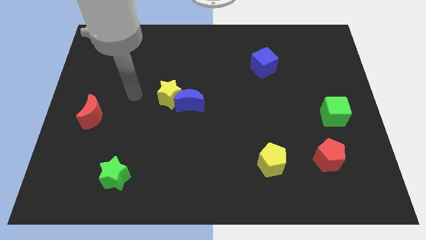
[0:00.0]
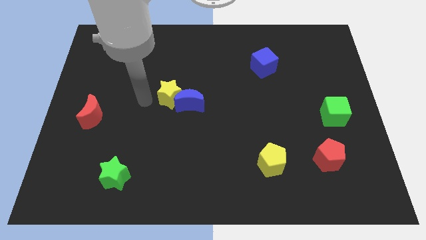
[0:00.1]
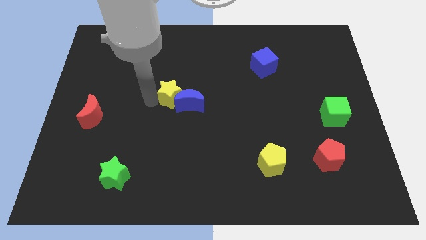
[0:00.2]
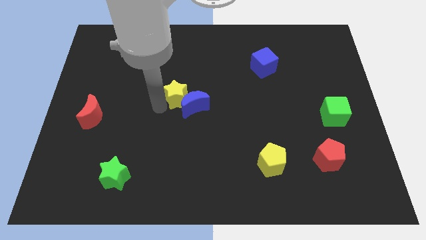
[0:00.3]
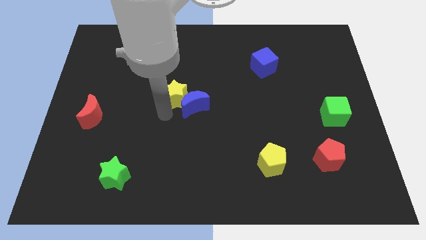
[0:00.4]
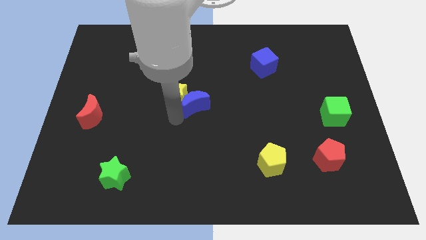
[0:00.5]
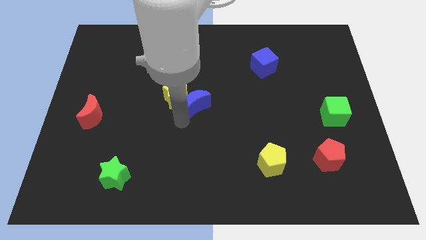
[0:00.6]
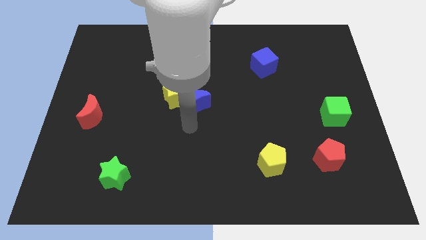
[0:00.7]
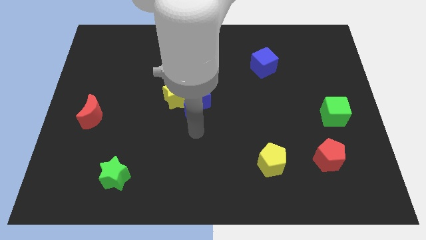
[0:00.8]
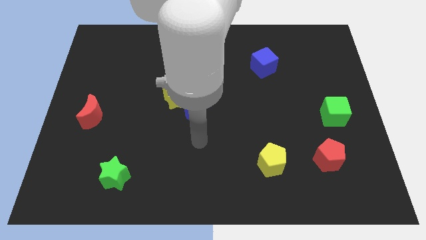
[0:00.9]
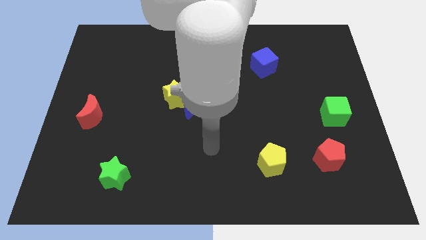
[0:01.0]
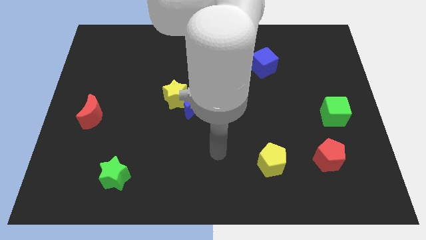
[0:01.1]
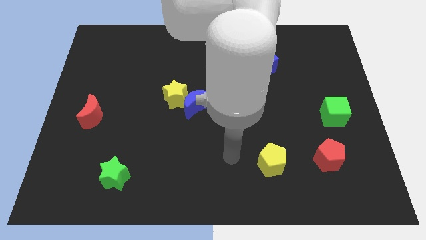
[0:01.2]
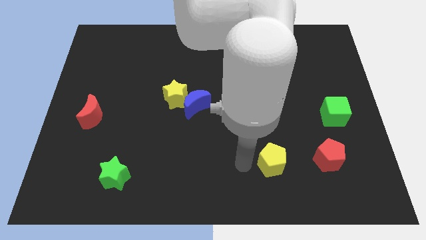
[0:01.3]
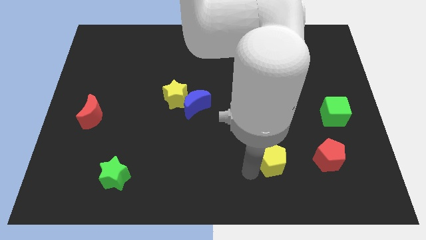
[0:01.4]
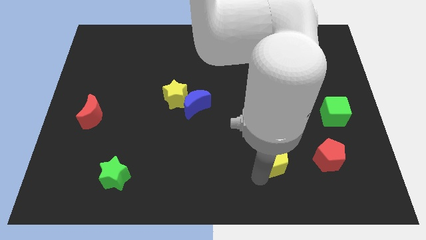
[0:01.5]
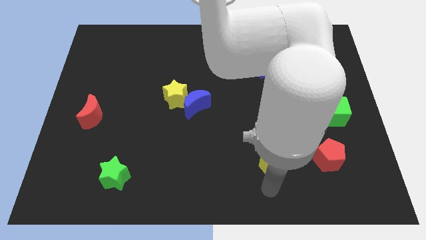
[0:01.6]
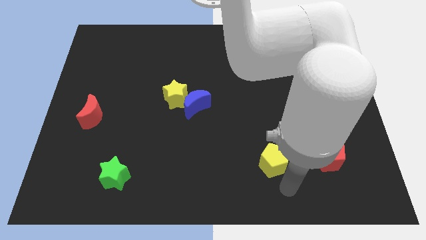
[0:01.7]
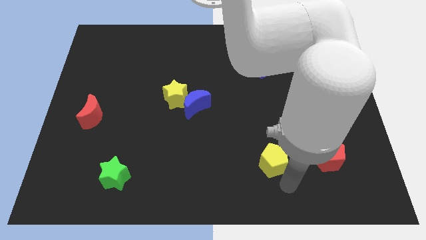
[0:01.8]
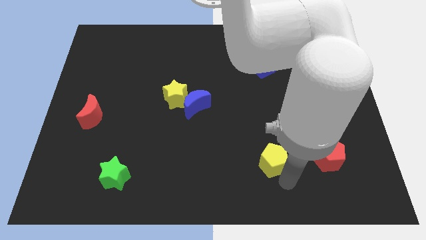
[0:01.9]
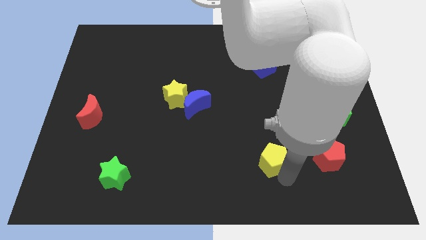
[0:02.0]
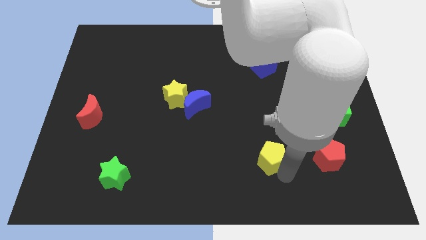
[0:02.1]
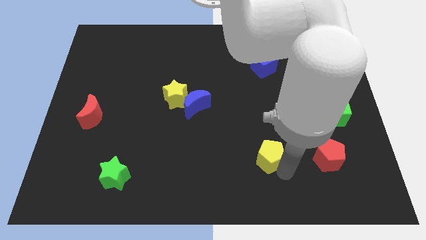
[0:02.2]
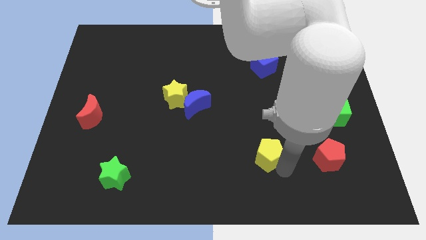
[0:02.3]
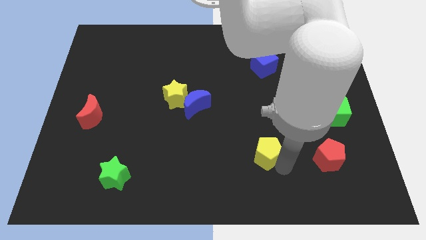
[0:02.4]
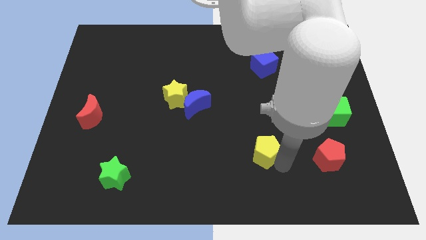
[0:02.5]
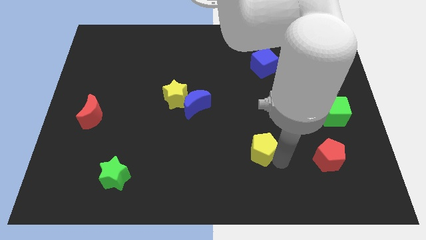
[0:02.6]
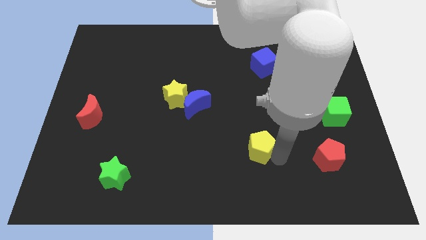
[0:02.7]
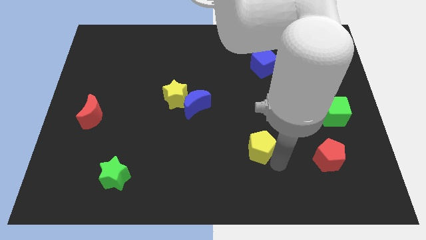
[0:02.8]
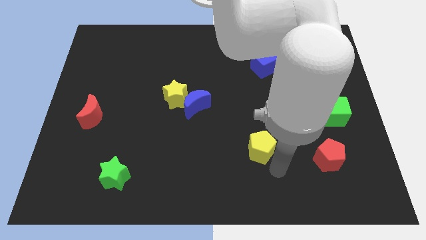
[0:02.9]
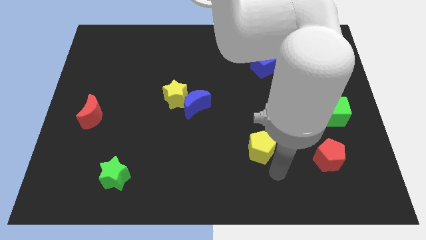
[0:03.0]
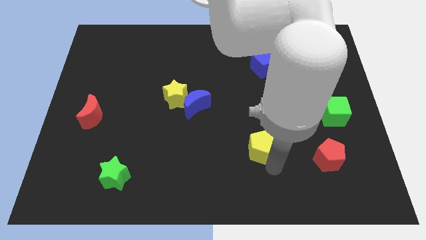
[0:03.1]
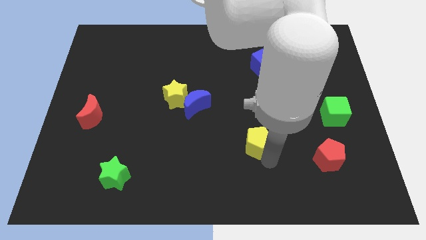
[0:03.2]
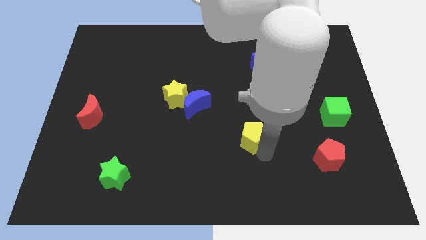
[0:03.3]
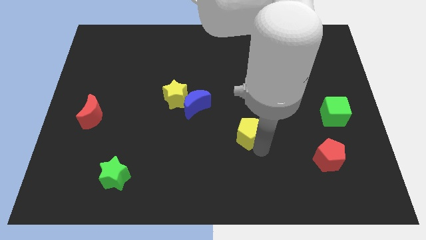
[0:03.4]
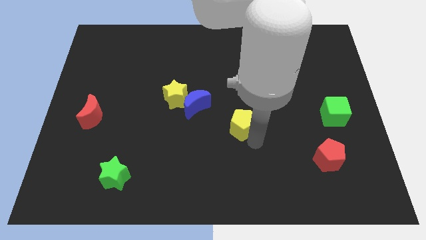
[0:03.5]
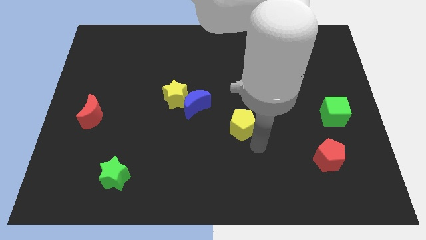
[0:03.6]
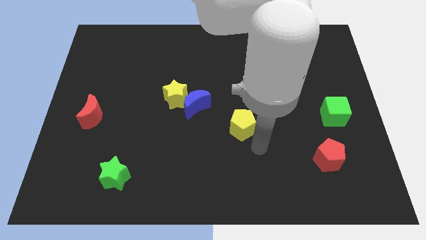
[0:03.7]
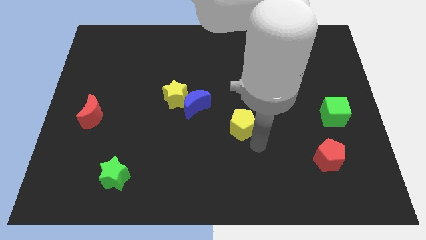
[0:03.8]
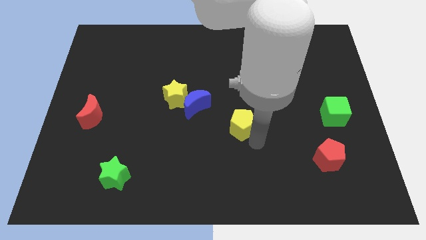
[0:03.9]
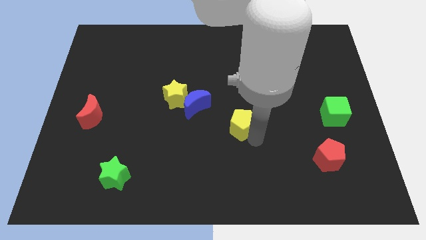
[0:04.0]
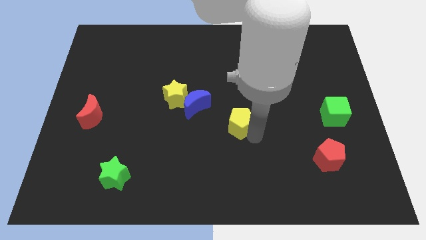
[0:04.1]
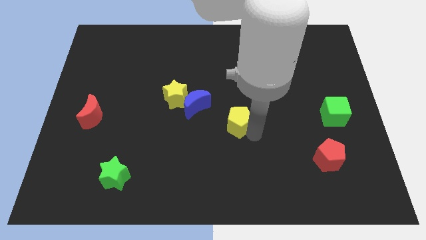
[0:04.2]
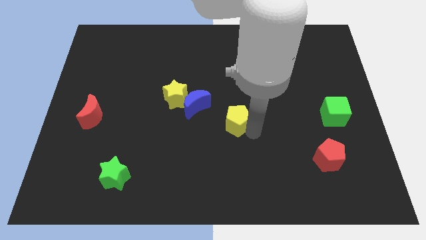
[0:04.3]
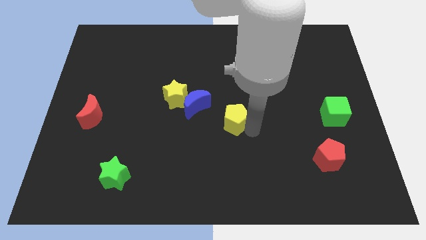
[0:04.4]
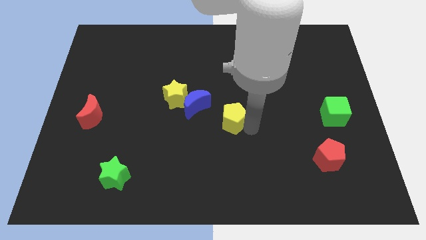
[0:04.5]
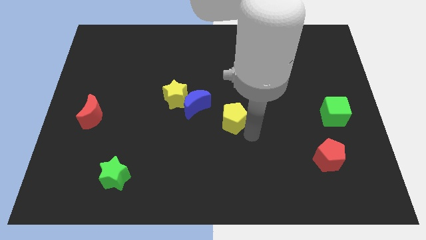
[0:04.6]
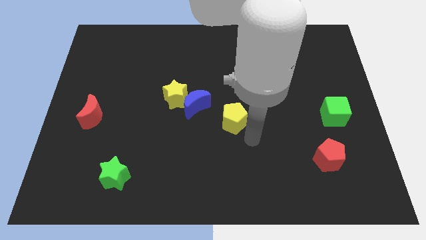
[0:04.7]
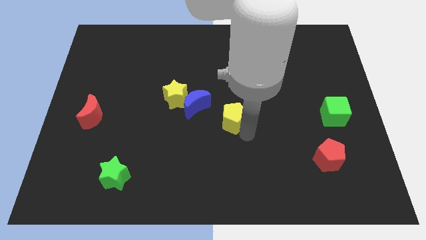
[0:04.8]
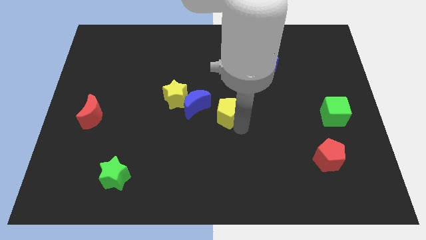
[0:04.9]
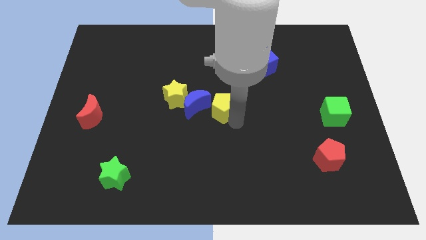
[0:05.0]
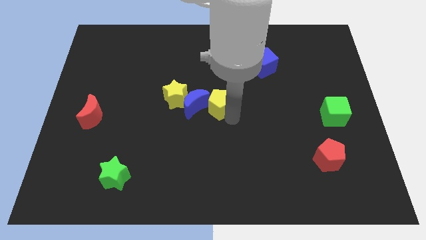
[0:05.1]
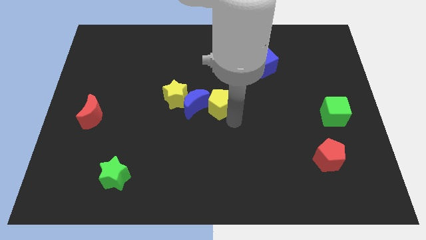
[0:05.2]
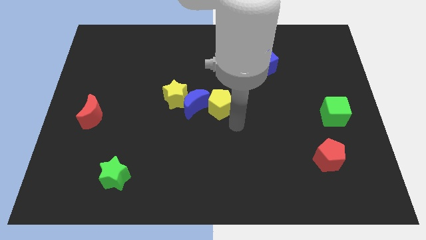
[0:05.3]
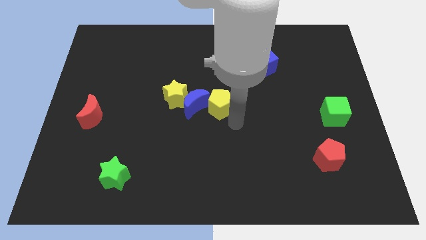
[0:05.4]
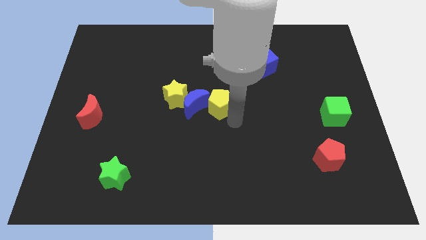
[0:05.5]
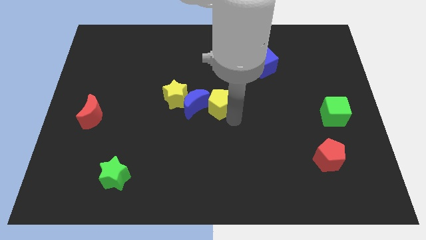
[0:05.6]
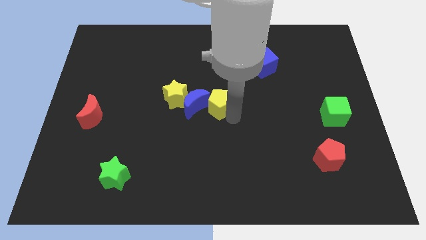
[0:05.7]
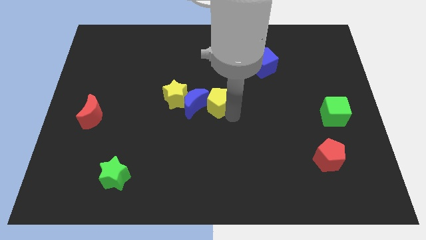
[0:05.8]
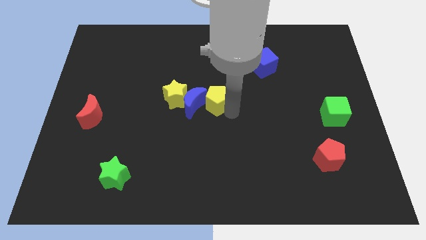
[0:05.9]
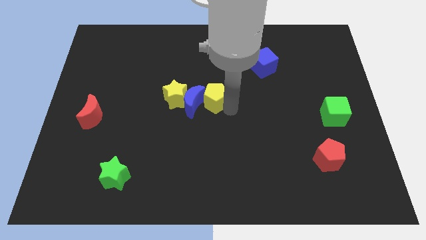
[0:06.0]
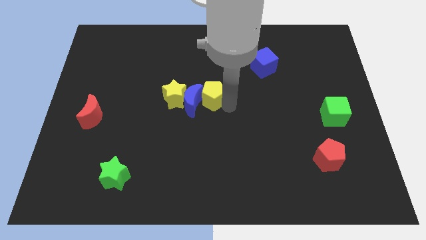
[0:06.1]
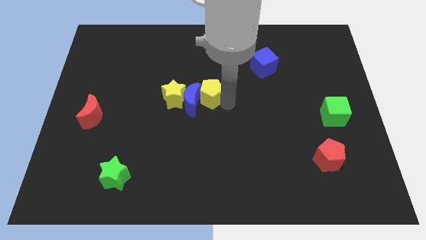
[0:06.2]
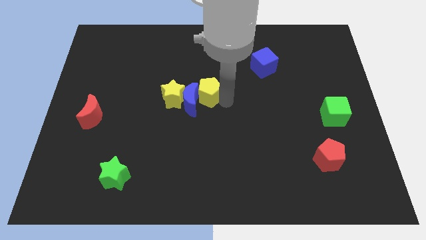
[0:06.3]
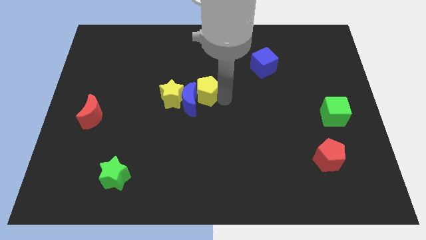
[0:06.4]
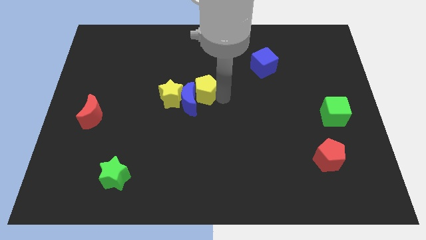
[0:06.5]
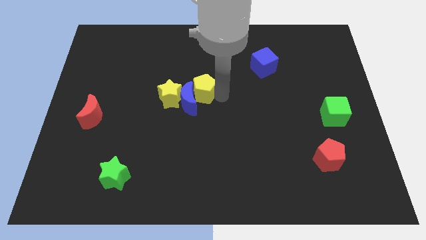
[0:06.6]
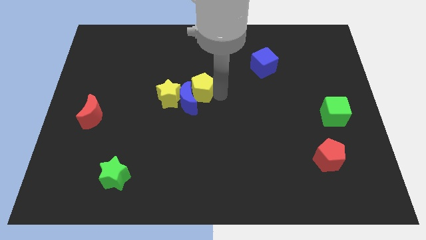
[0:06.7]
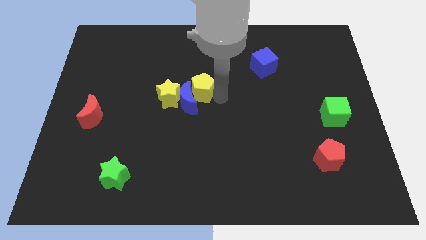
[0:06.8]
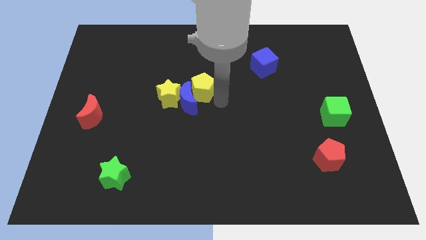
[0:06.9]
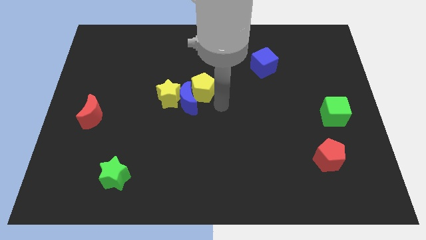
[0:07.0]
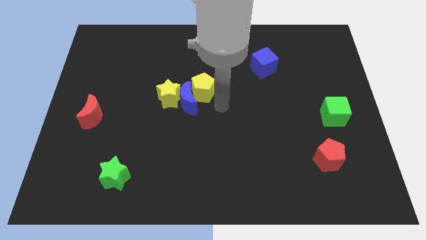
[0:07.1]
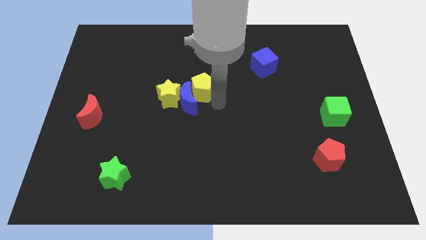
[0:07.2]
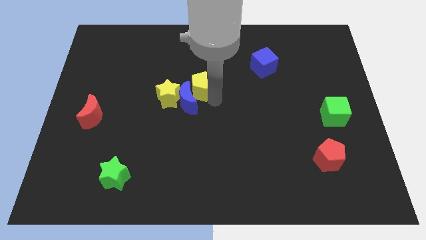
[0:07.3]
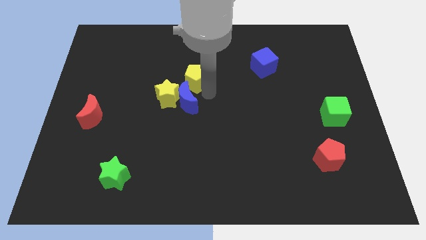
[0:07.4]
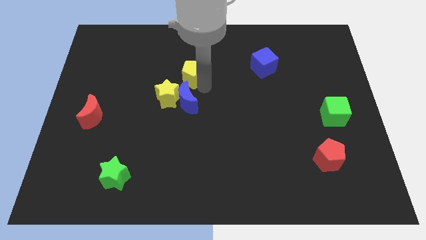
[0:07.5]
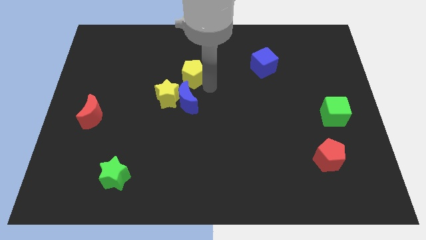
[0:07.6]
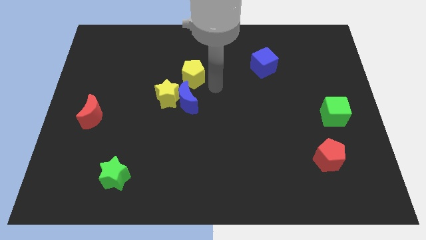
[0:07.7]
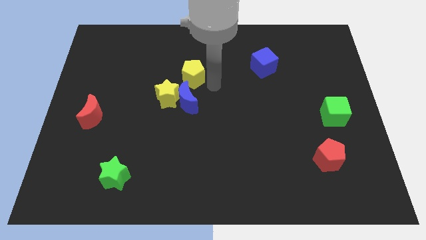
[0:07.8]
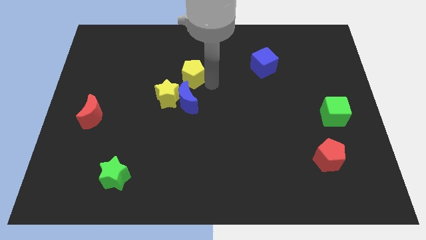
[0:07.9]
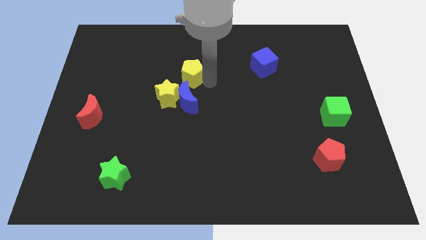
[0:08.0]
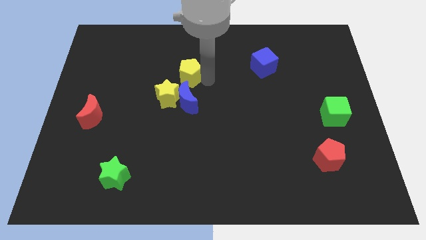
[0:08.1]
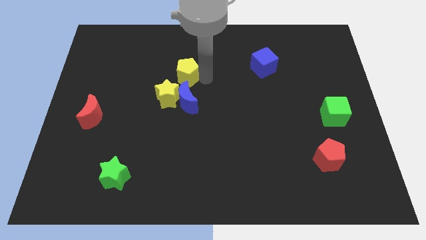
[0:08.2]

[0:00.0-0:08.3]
move the yellow pentagon to the top of the yellow star
